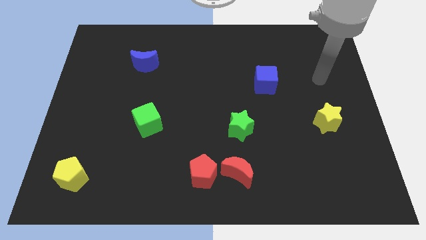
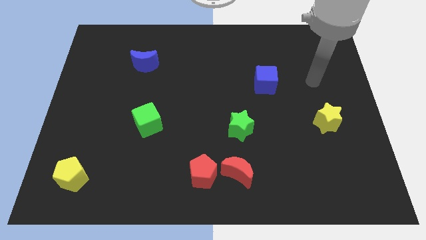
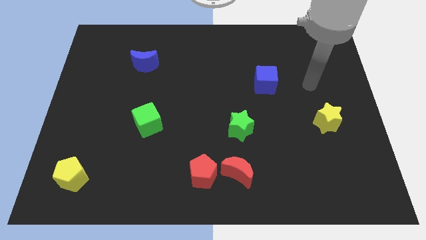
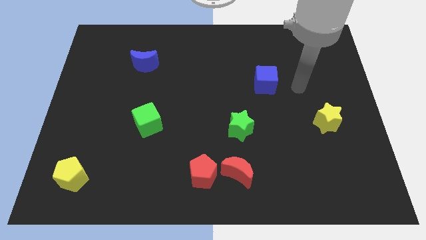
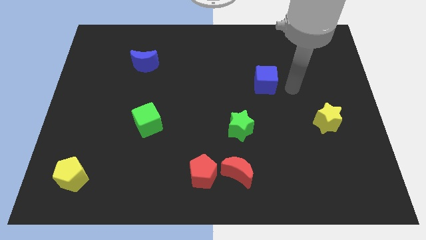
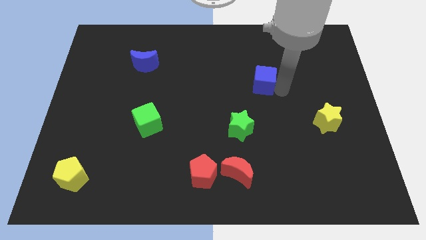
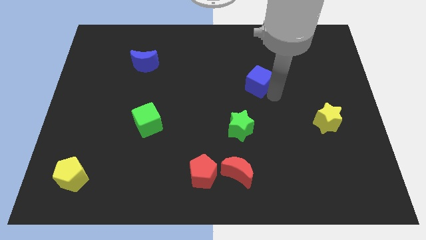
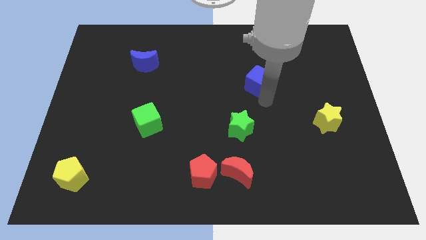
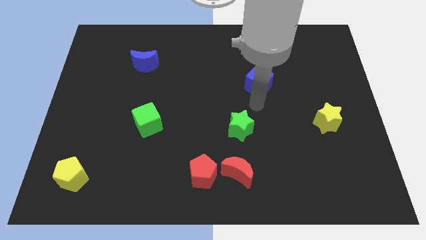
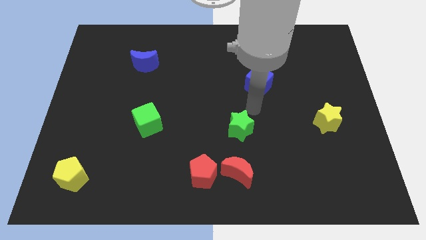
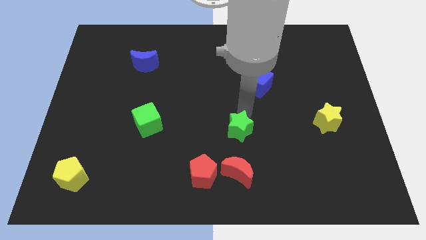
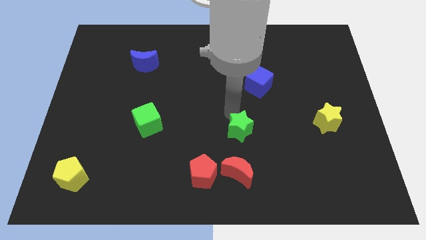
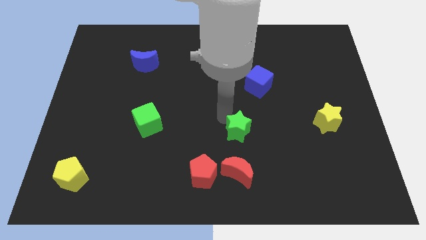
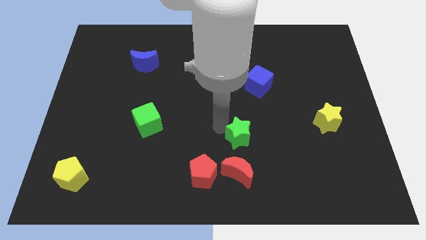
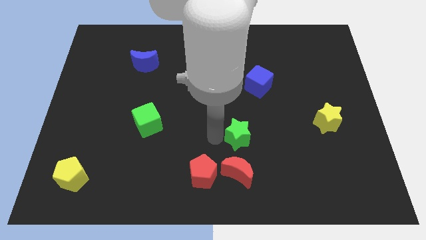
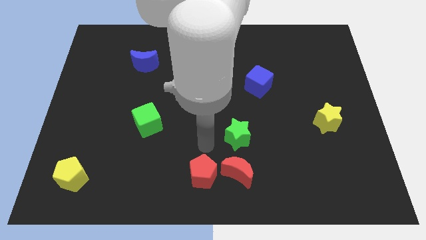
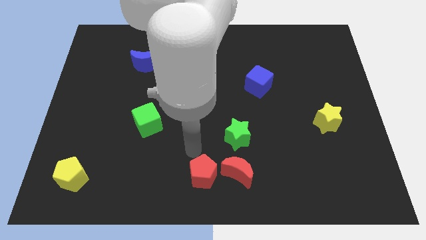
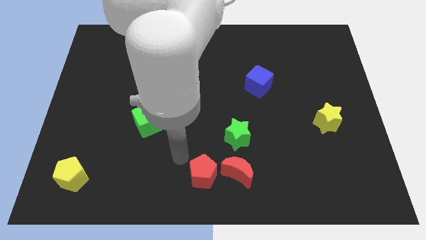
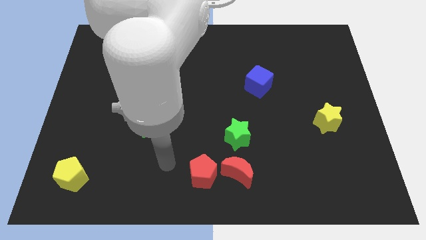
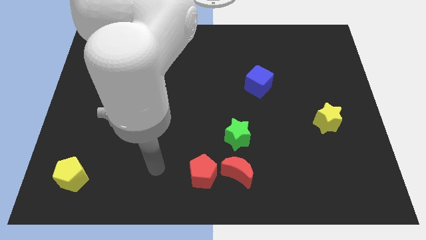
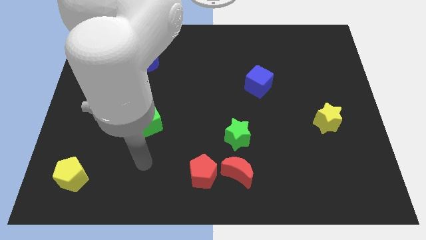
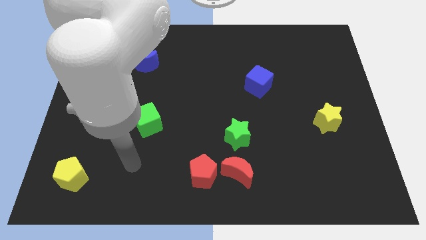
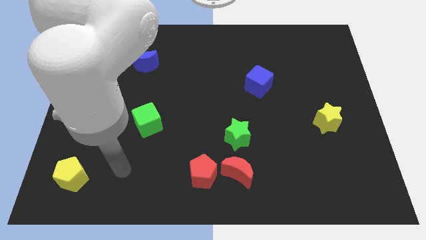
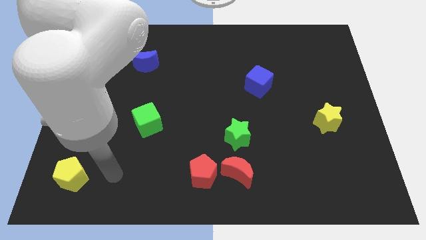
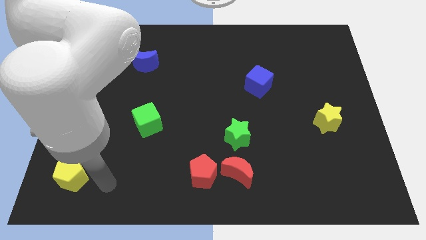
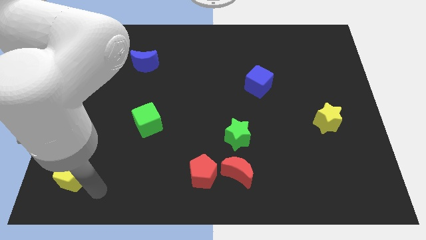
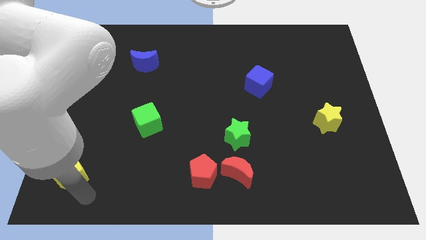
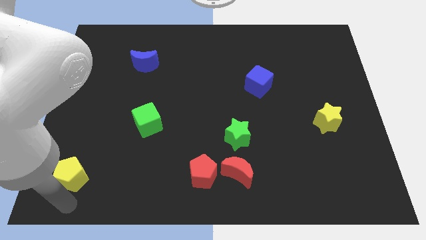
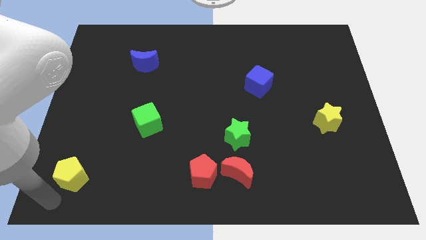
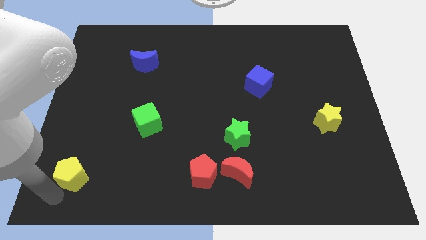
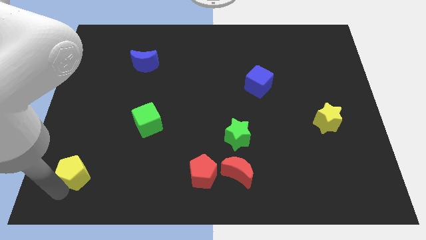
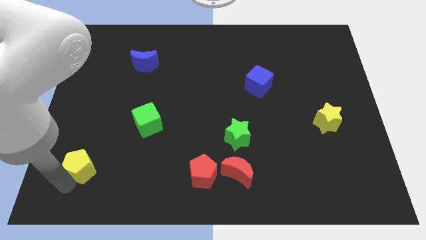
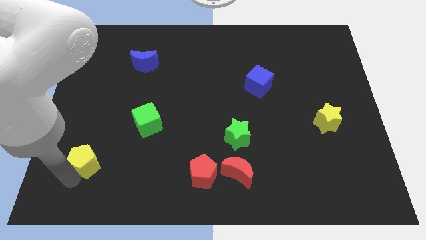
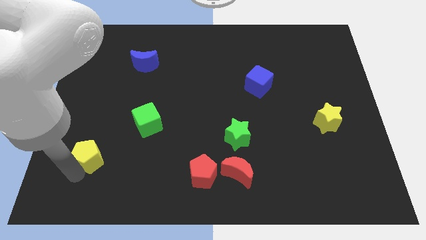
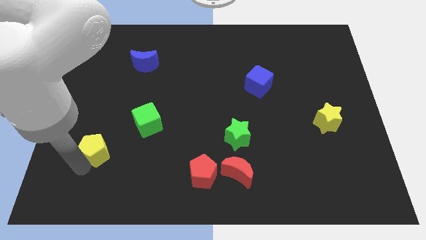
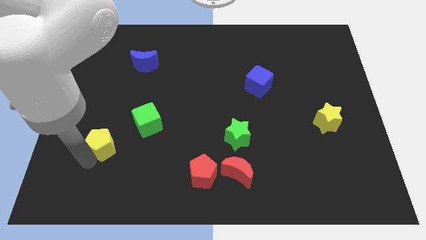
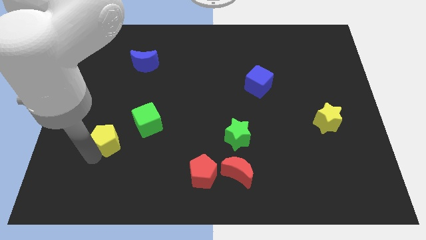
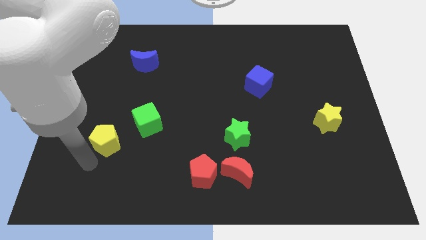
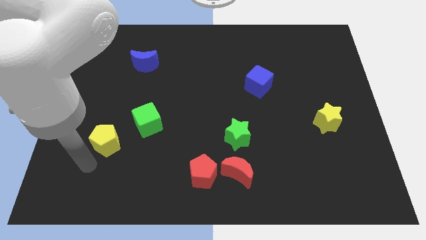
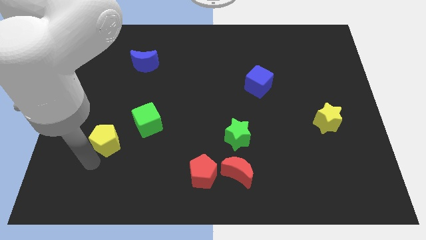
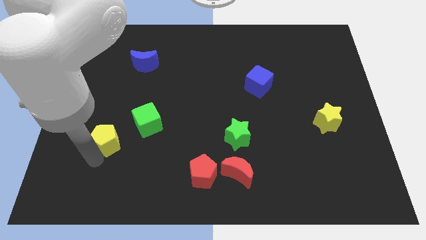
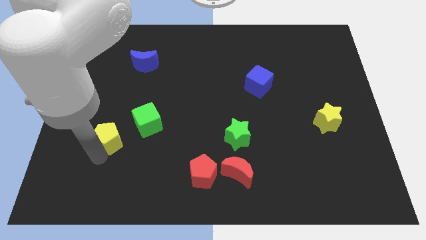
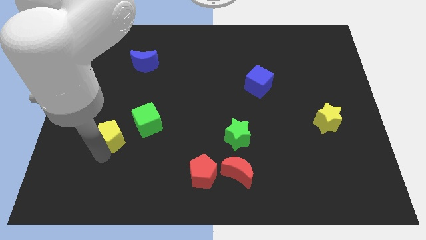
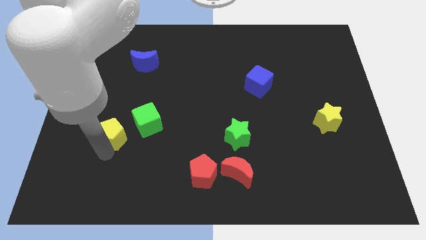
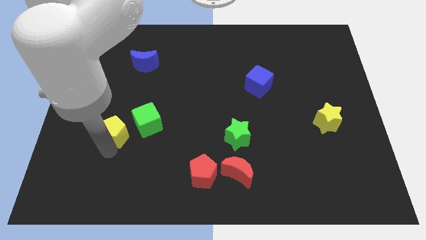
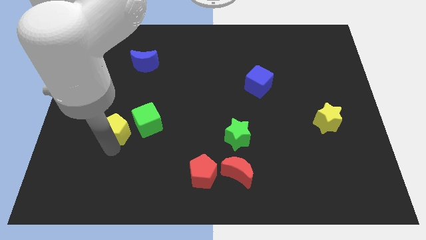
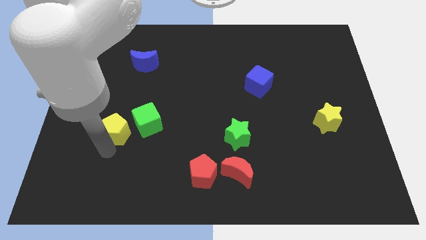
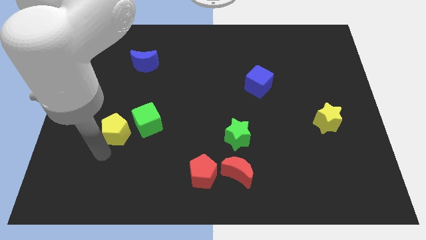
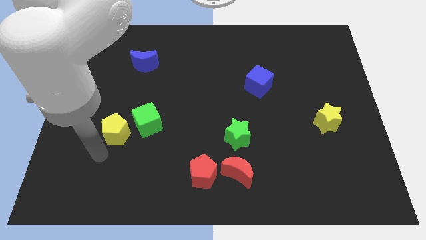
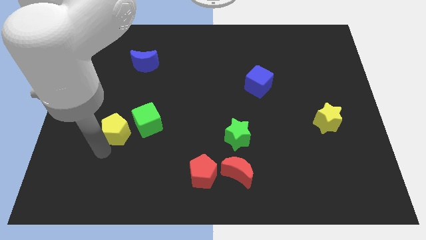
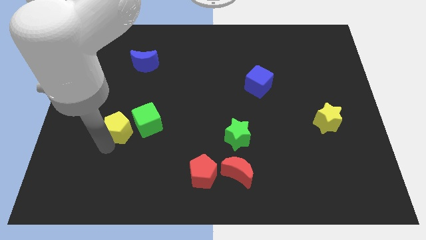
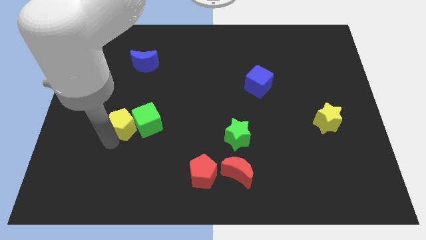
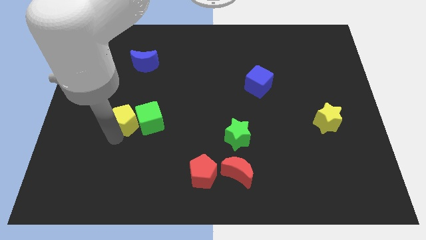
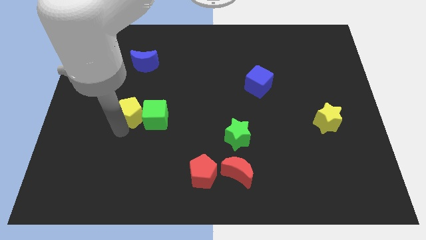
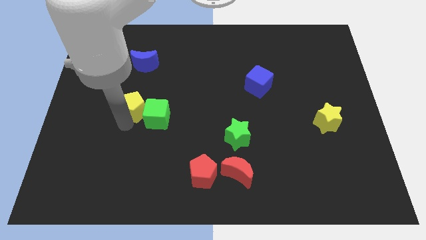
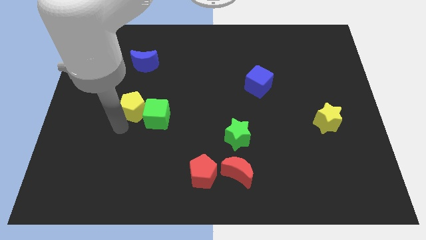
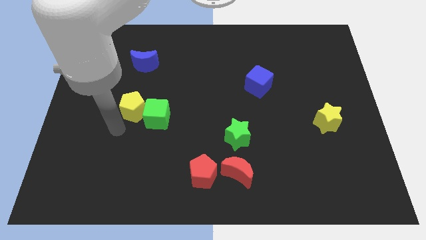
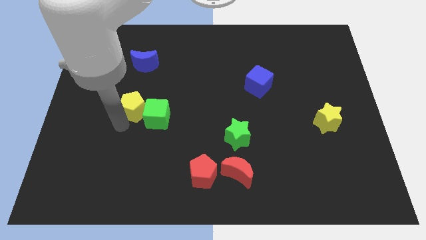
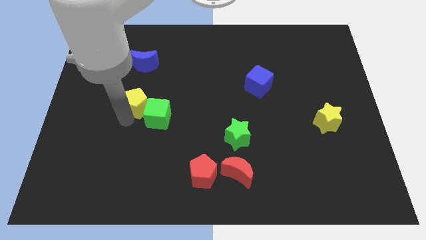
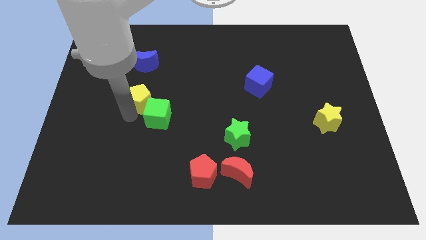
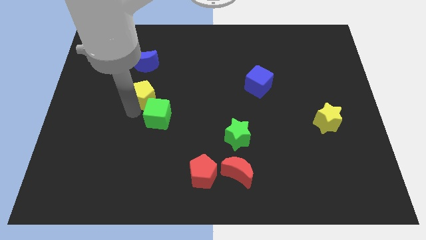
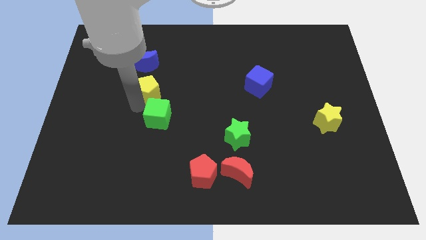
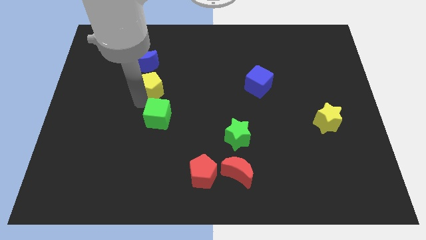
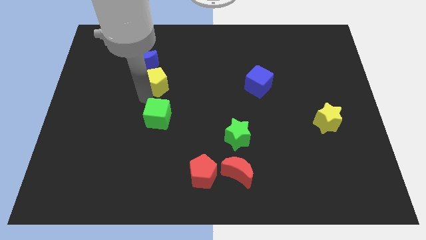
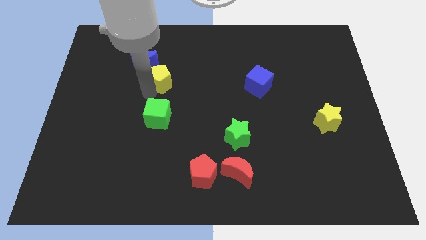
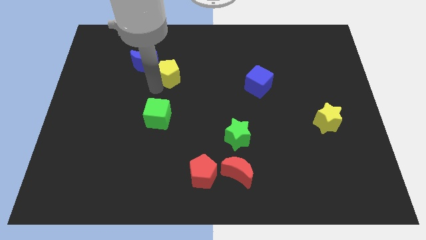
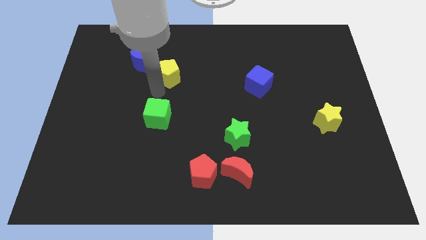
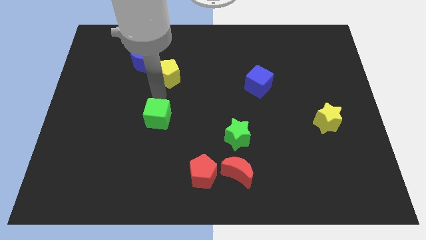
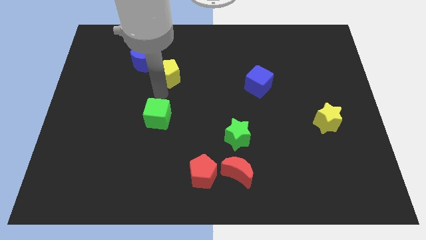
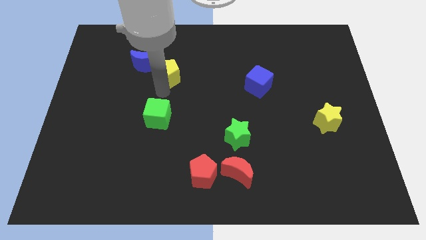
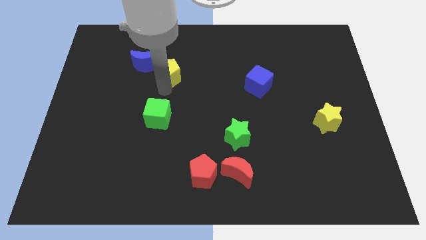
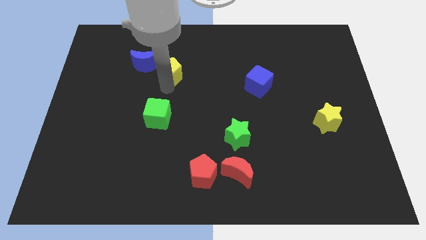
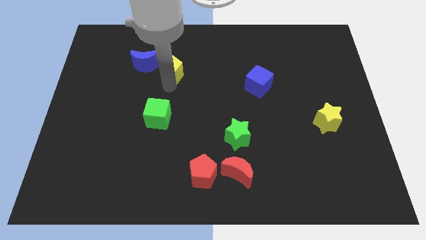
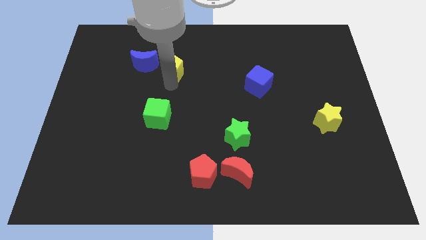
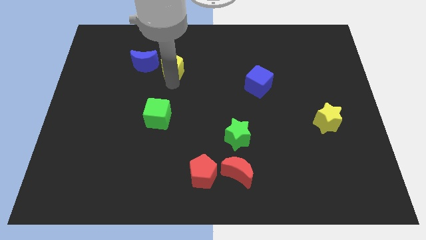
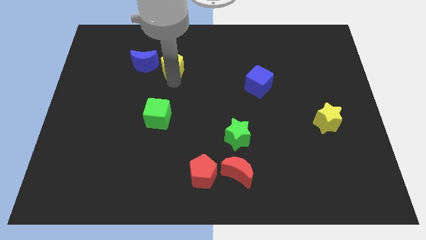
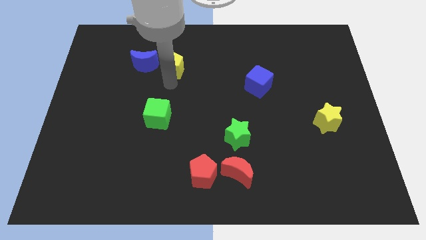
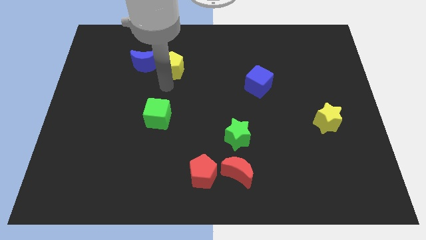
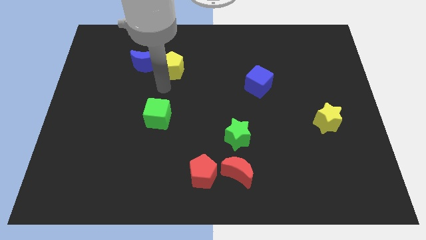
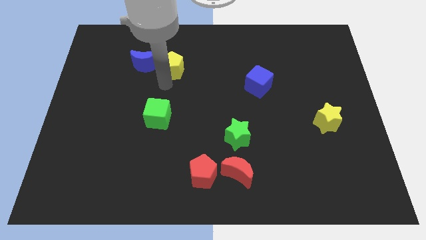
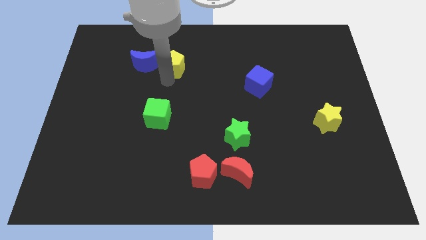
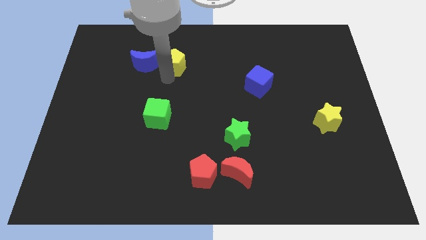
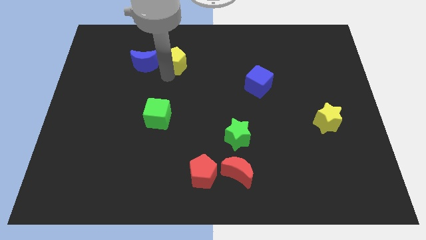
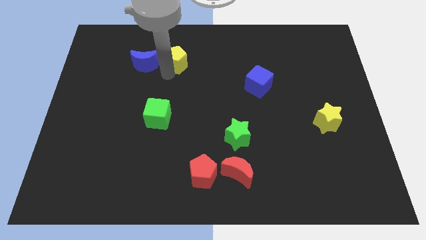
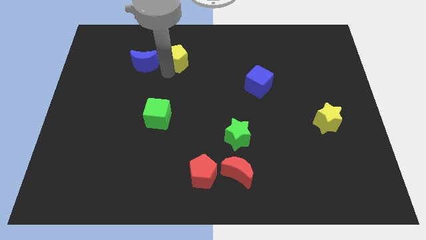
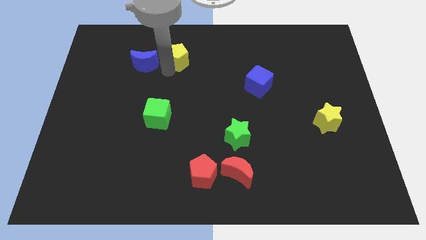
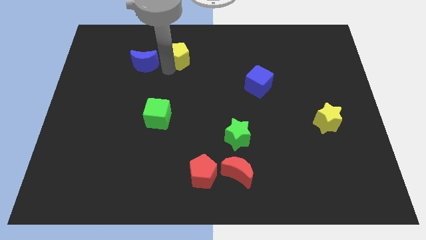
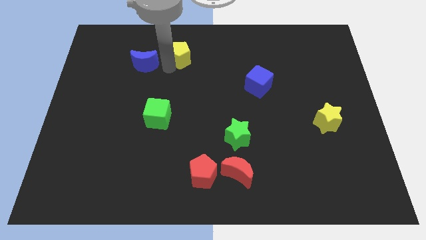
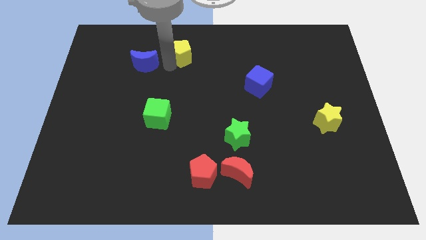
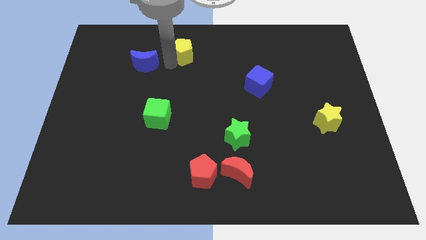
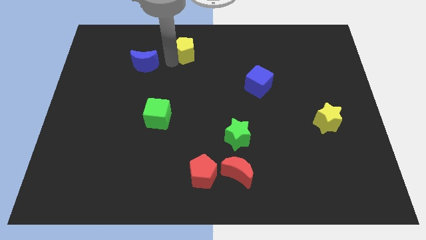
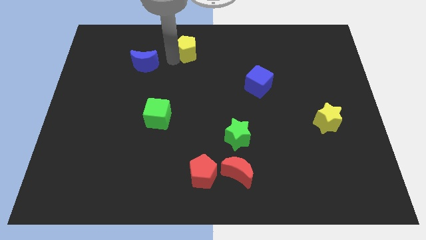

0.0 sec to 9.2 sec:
put the yellow pentagon to the top
